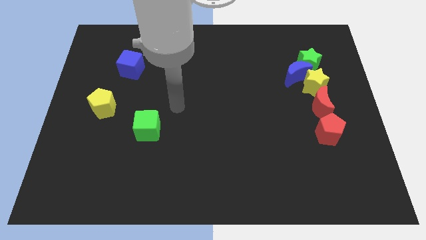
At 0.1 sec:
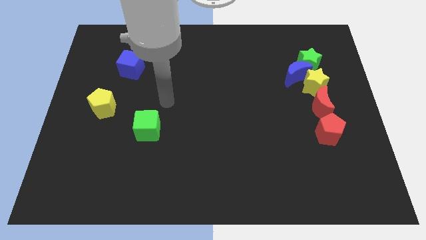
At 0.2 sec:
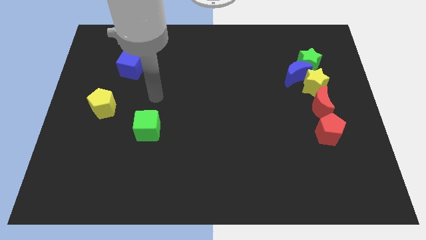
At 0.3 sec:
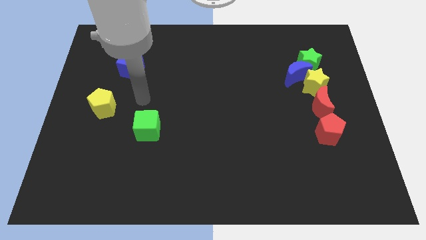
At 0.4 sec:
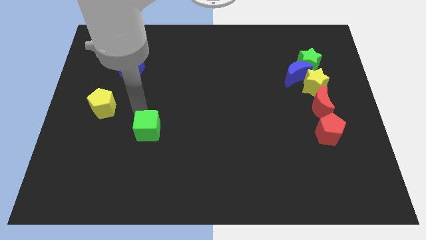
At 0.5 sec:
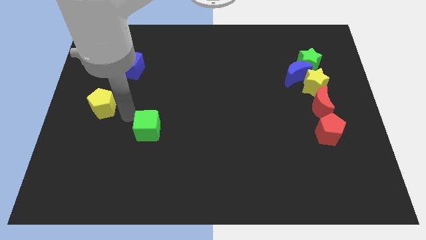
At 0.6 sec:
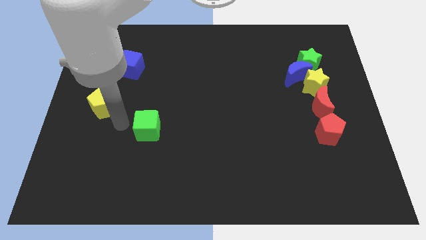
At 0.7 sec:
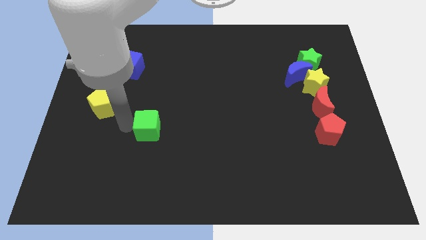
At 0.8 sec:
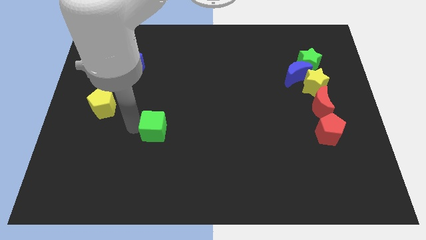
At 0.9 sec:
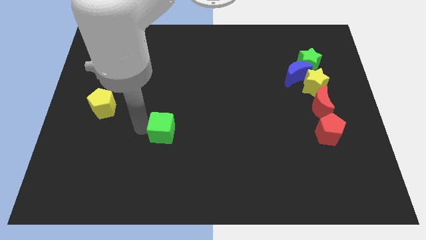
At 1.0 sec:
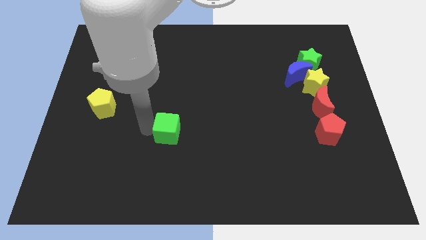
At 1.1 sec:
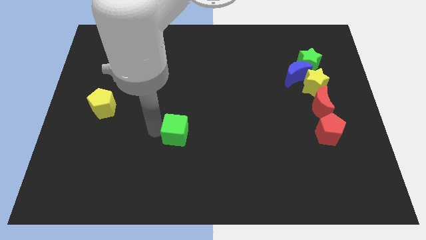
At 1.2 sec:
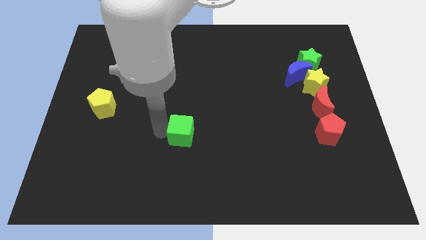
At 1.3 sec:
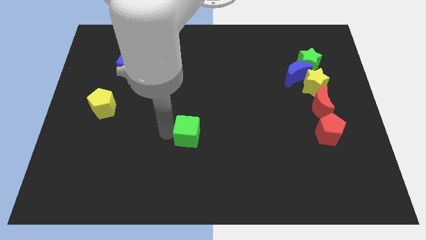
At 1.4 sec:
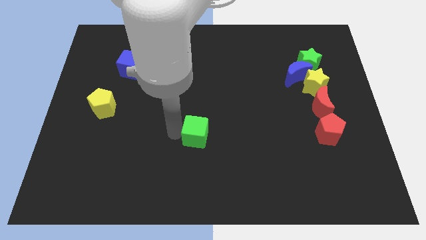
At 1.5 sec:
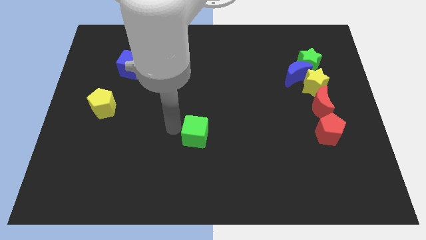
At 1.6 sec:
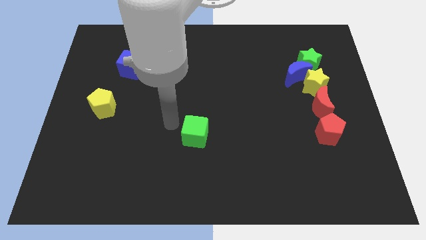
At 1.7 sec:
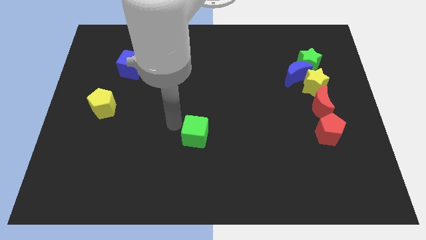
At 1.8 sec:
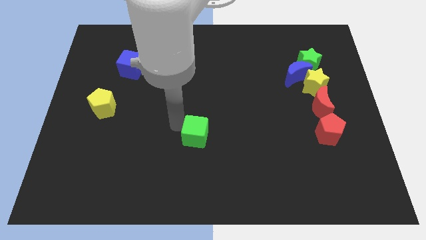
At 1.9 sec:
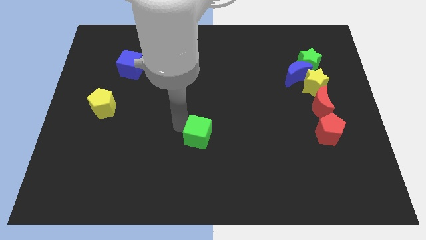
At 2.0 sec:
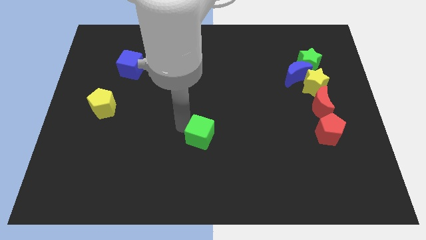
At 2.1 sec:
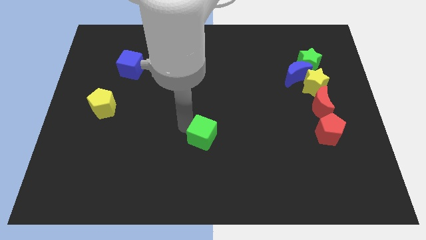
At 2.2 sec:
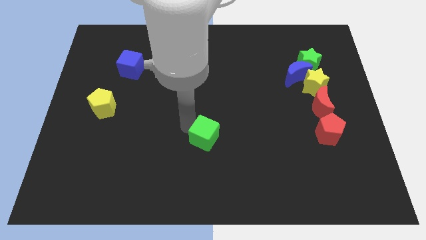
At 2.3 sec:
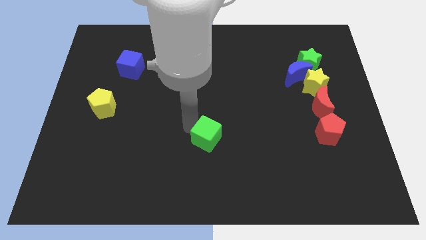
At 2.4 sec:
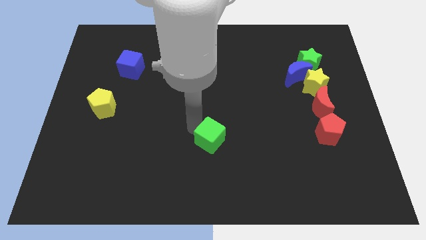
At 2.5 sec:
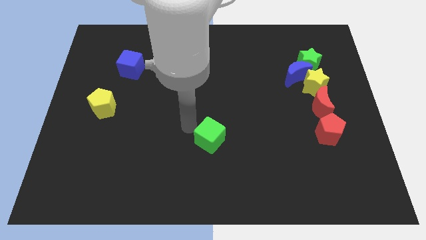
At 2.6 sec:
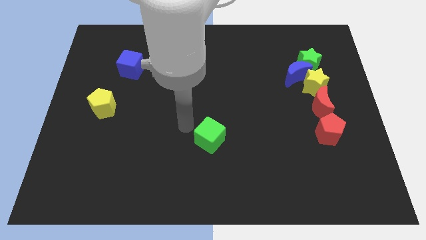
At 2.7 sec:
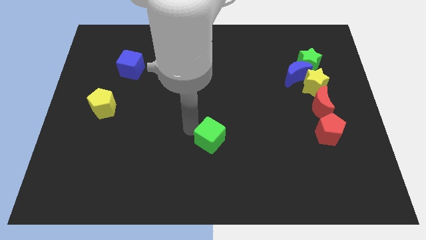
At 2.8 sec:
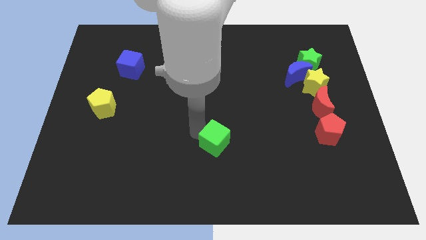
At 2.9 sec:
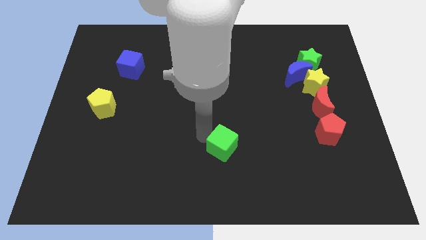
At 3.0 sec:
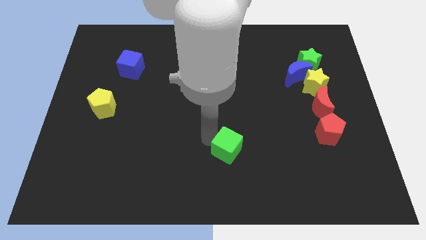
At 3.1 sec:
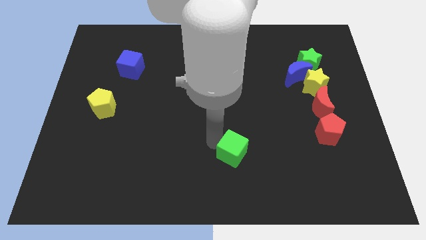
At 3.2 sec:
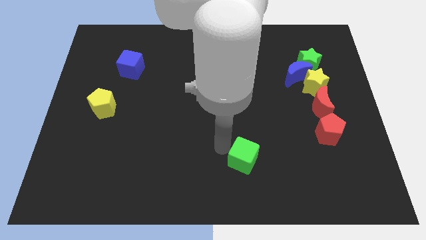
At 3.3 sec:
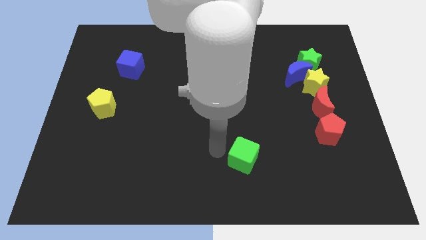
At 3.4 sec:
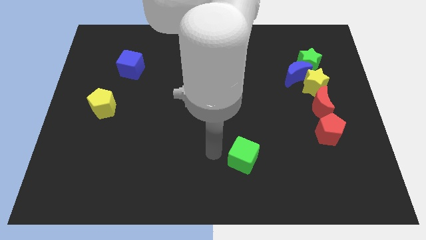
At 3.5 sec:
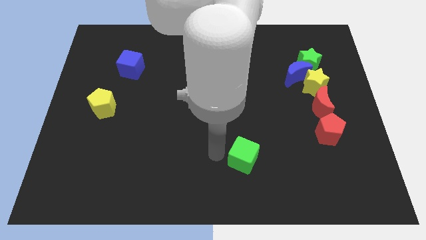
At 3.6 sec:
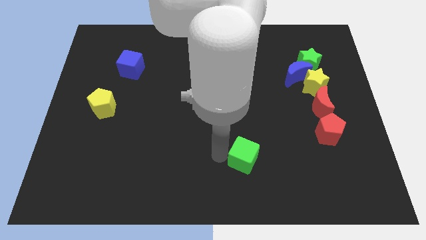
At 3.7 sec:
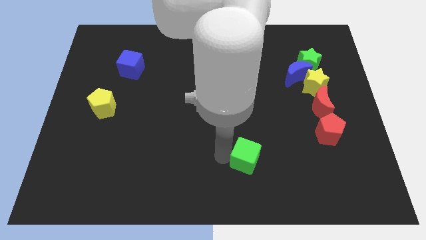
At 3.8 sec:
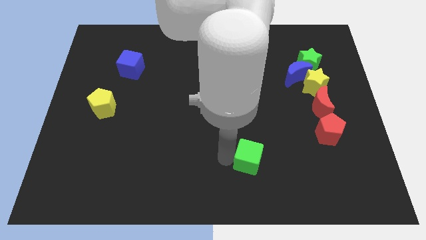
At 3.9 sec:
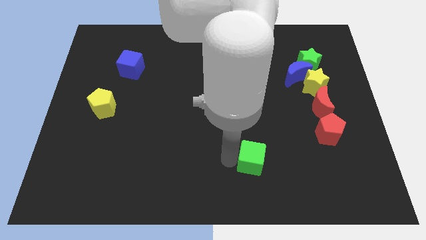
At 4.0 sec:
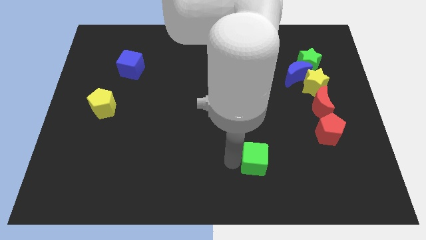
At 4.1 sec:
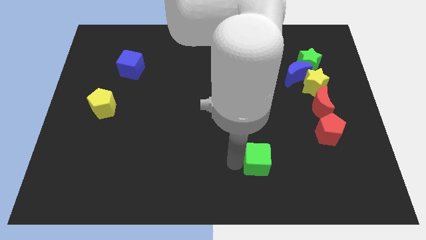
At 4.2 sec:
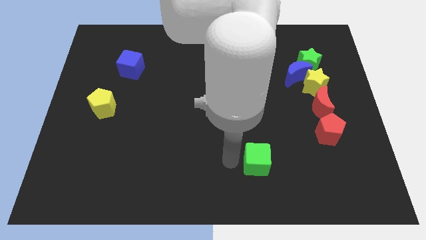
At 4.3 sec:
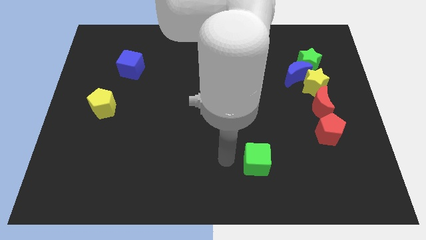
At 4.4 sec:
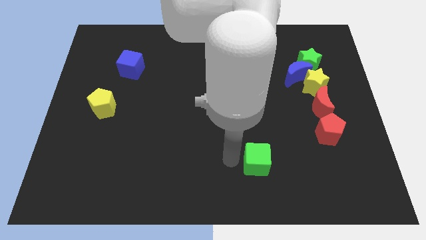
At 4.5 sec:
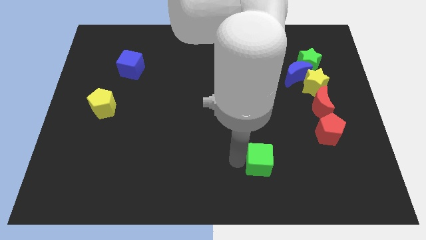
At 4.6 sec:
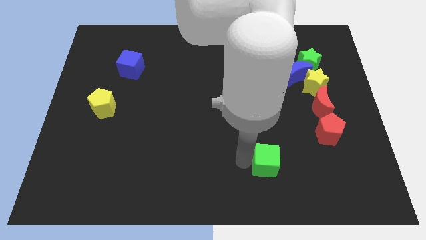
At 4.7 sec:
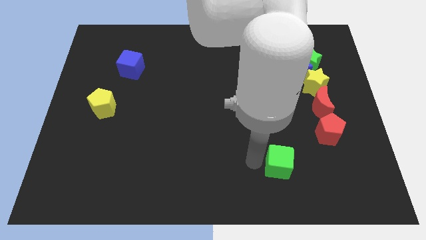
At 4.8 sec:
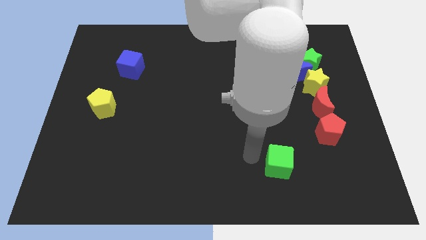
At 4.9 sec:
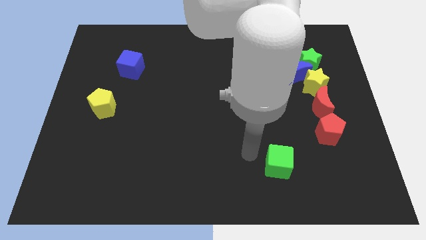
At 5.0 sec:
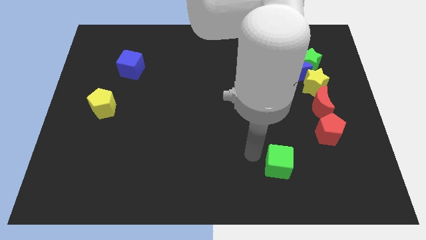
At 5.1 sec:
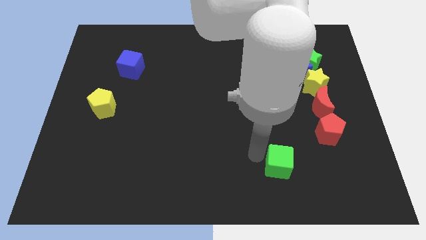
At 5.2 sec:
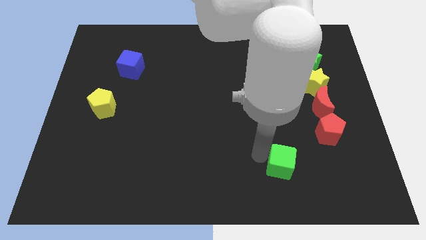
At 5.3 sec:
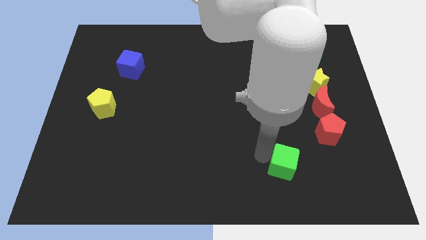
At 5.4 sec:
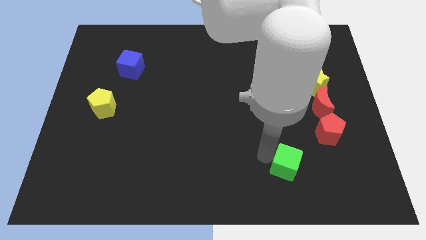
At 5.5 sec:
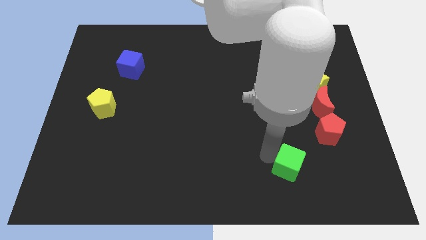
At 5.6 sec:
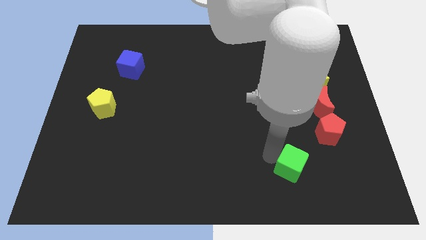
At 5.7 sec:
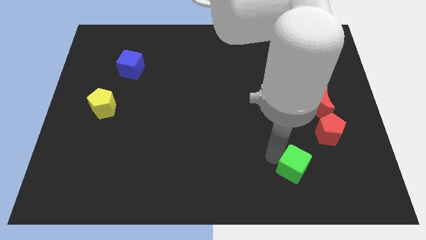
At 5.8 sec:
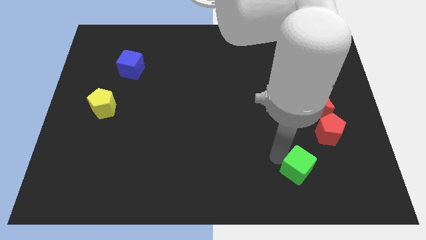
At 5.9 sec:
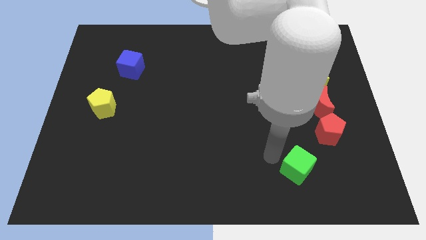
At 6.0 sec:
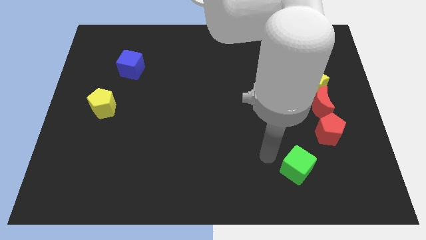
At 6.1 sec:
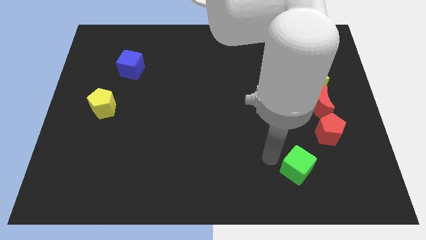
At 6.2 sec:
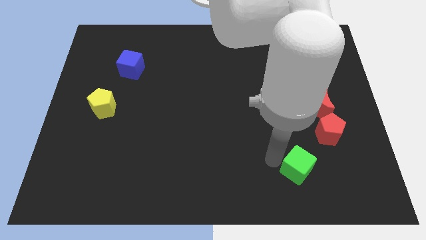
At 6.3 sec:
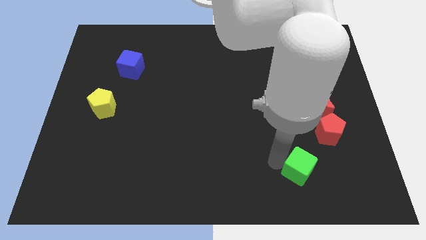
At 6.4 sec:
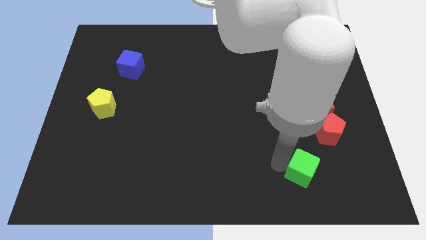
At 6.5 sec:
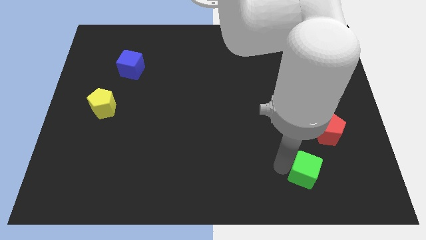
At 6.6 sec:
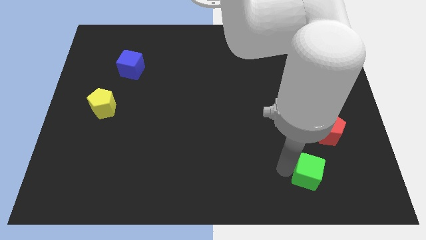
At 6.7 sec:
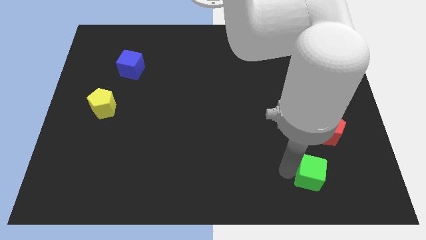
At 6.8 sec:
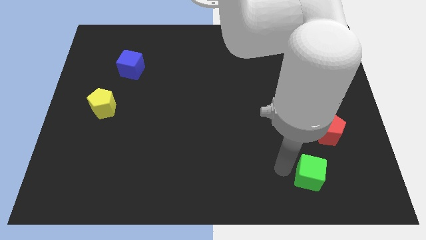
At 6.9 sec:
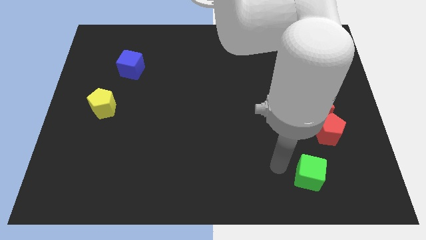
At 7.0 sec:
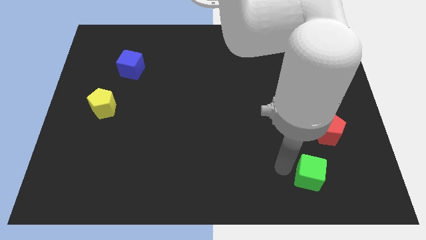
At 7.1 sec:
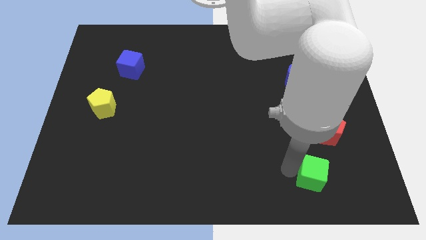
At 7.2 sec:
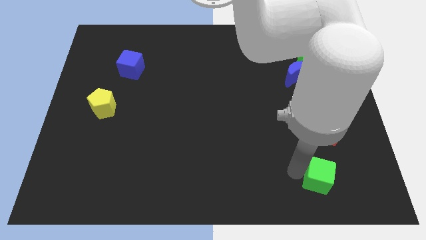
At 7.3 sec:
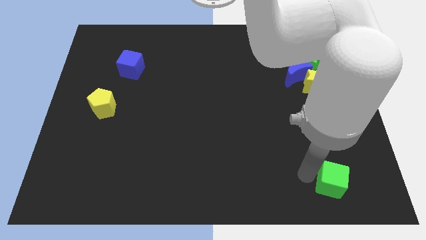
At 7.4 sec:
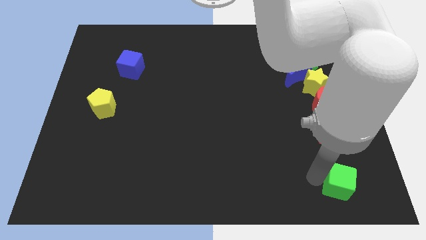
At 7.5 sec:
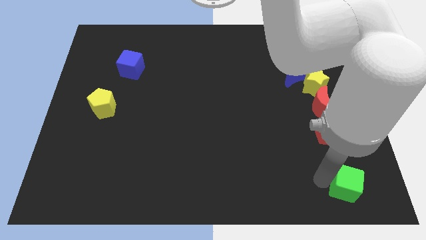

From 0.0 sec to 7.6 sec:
slide the green cube to the lower right corner
